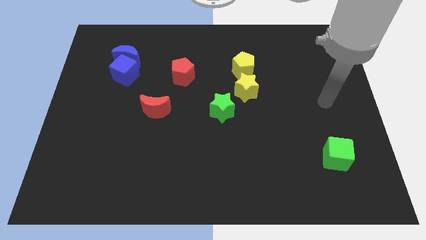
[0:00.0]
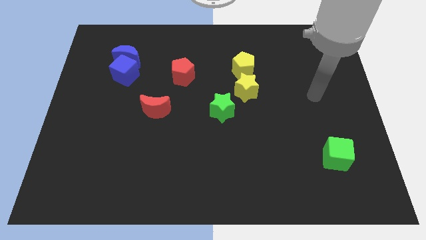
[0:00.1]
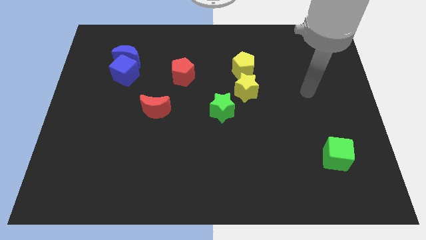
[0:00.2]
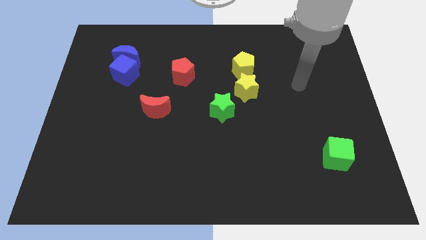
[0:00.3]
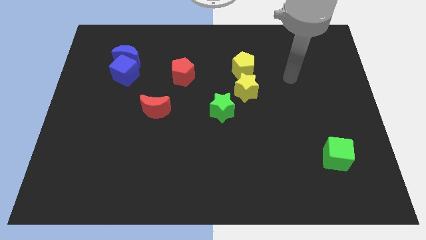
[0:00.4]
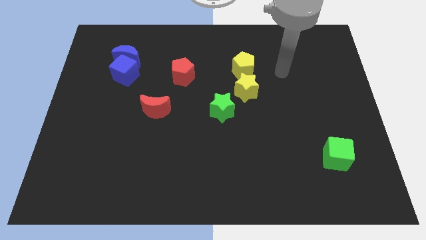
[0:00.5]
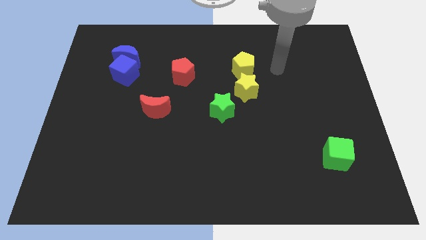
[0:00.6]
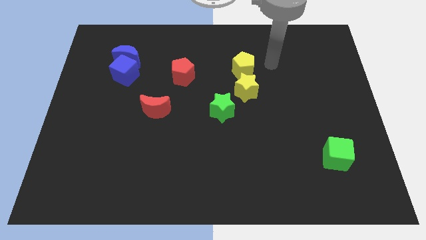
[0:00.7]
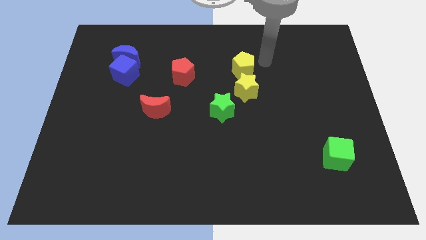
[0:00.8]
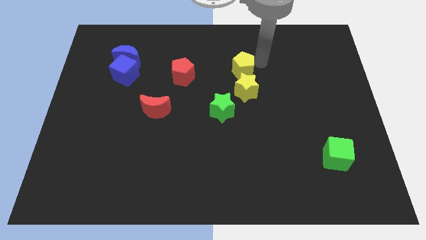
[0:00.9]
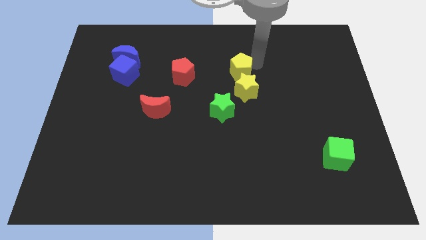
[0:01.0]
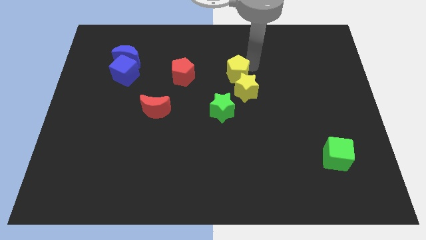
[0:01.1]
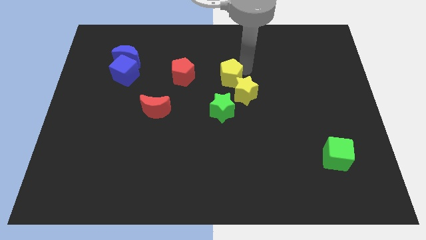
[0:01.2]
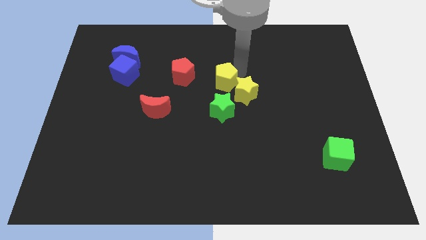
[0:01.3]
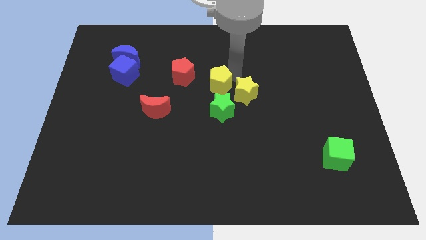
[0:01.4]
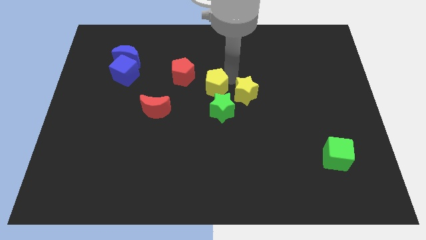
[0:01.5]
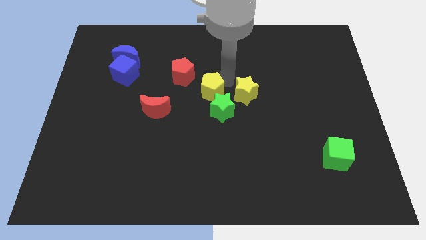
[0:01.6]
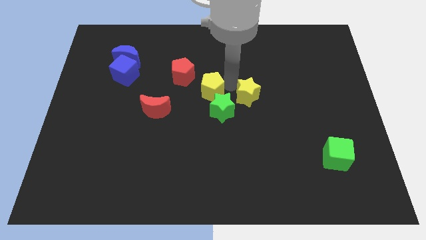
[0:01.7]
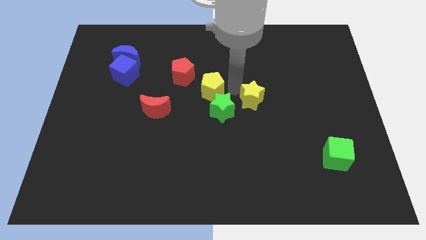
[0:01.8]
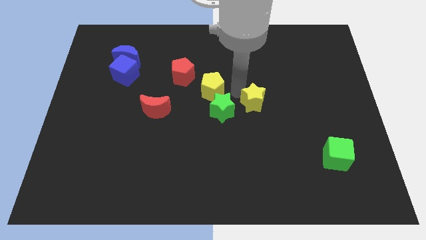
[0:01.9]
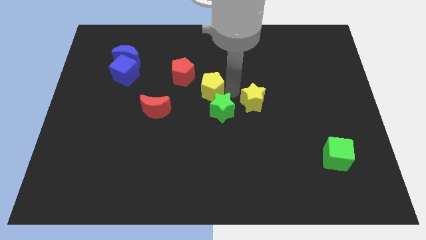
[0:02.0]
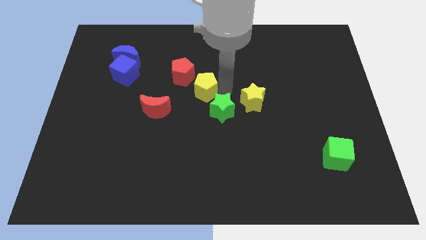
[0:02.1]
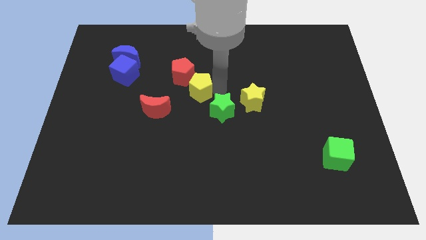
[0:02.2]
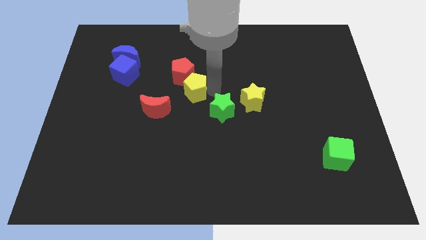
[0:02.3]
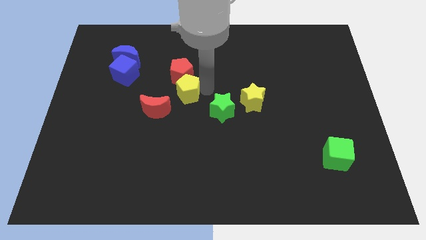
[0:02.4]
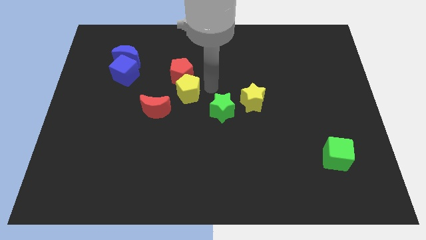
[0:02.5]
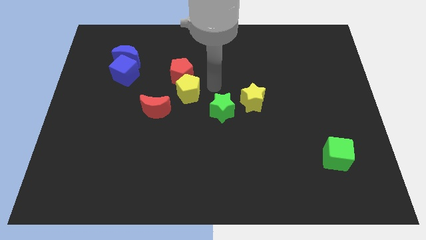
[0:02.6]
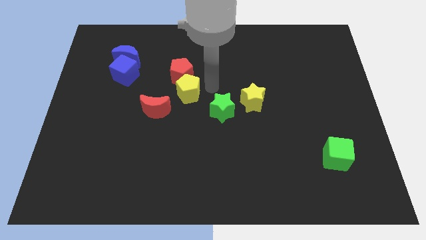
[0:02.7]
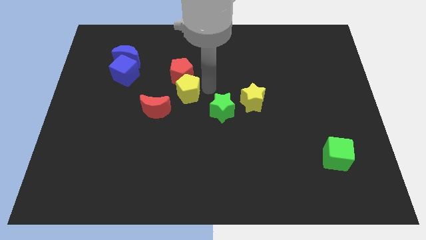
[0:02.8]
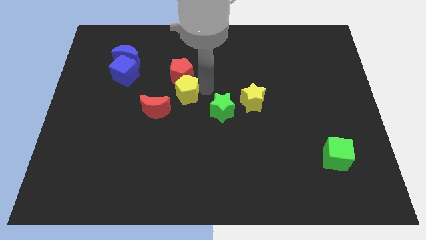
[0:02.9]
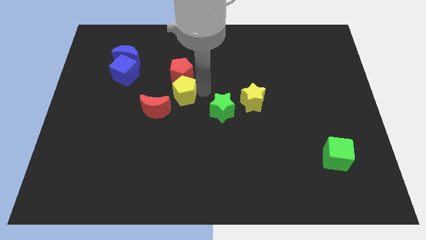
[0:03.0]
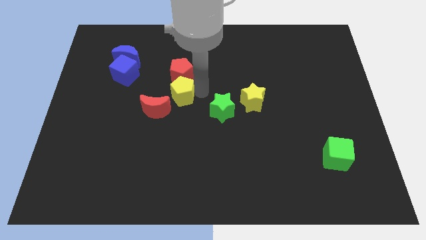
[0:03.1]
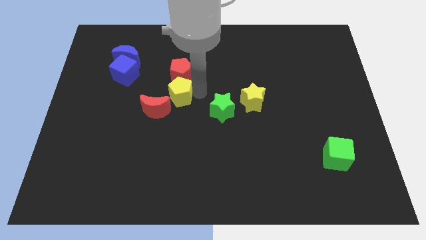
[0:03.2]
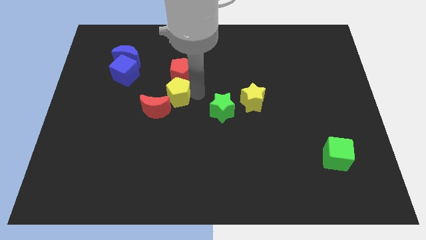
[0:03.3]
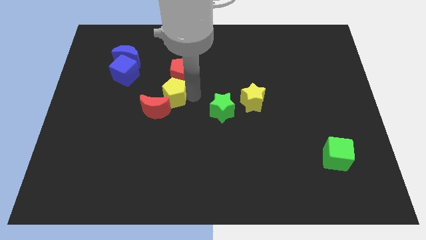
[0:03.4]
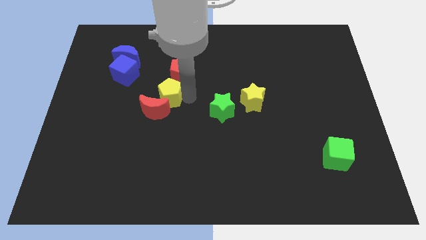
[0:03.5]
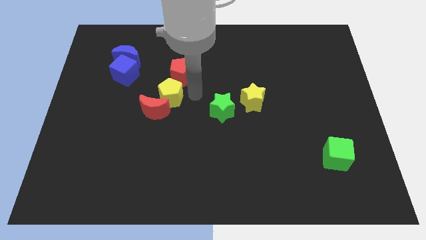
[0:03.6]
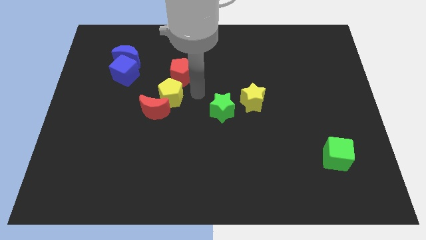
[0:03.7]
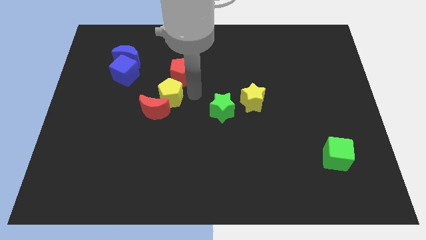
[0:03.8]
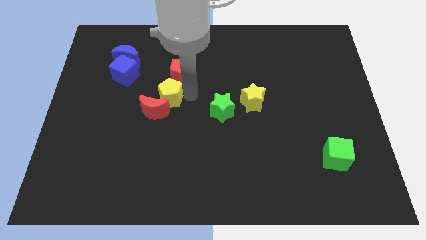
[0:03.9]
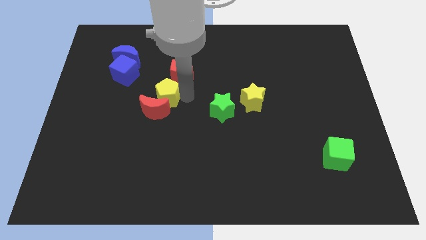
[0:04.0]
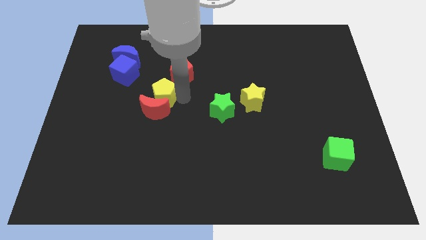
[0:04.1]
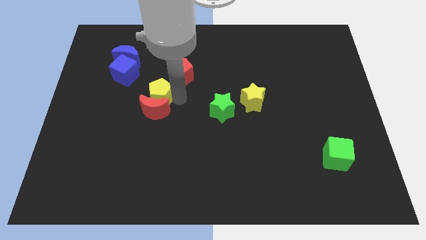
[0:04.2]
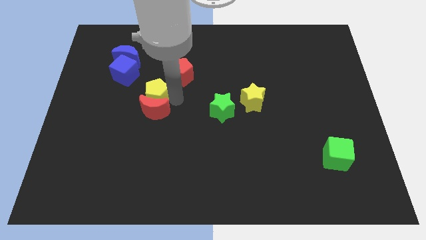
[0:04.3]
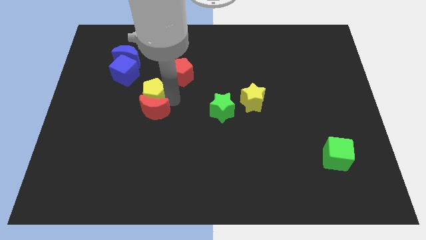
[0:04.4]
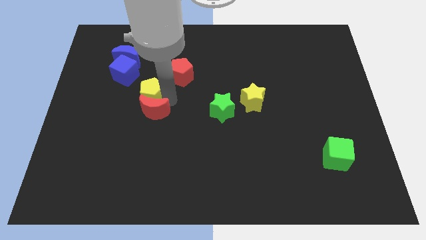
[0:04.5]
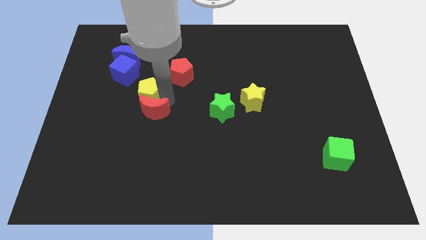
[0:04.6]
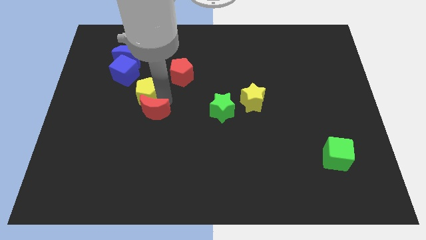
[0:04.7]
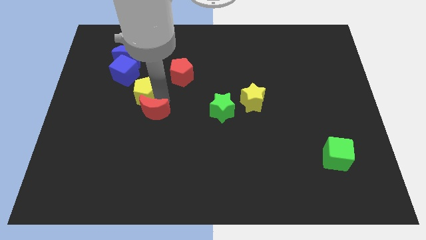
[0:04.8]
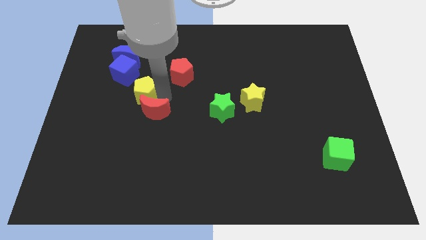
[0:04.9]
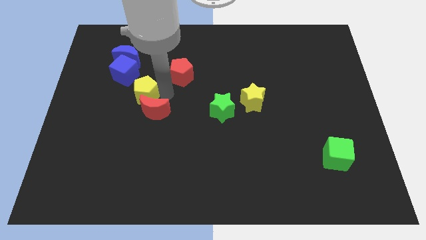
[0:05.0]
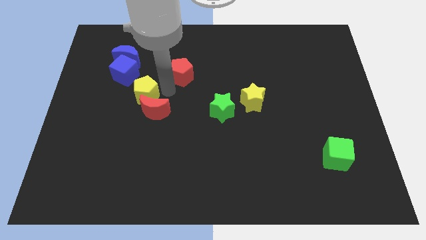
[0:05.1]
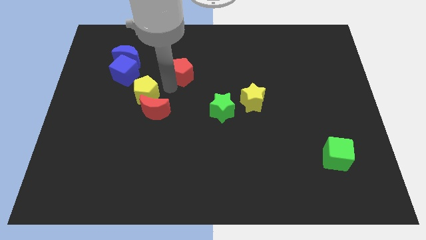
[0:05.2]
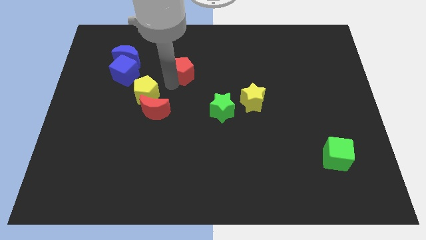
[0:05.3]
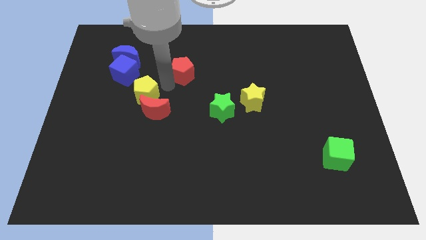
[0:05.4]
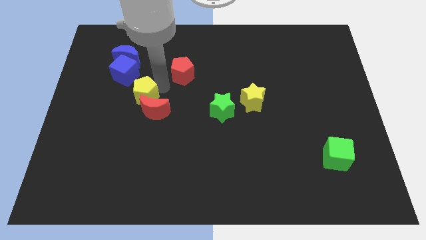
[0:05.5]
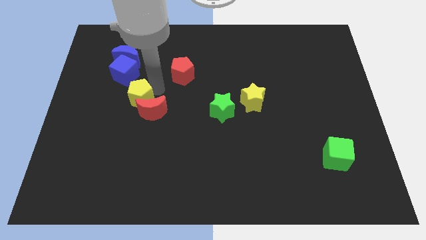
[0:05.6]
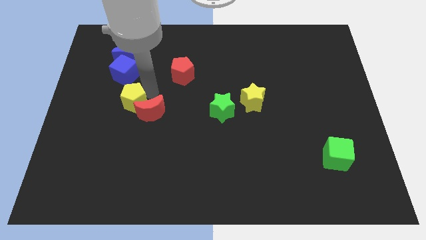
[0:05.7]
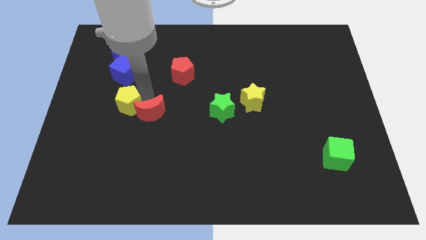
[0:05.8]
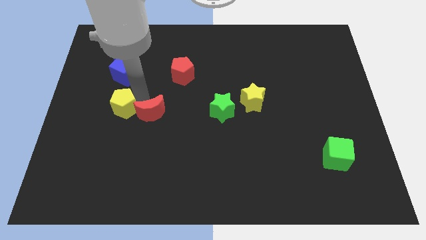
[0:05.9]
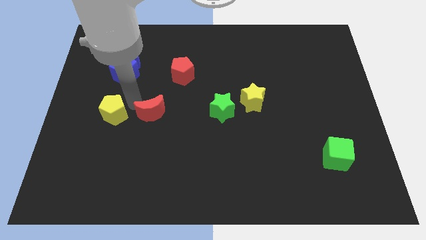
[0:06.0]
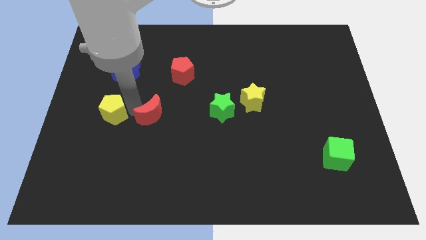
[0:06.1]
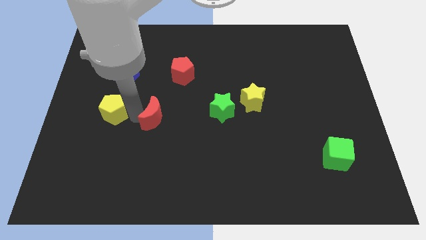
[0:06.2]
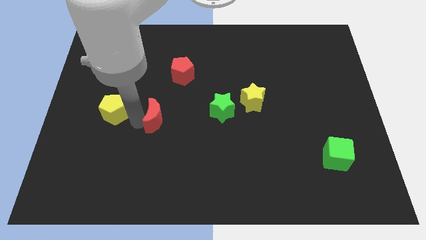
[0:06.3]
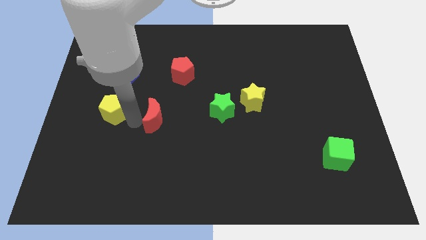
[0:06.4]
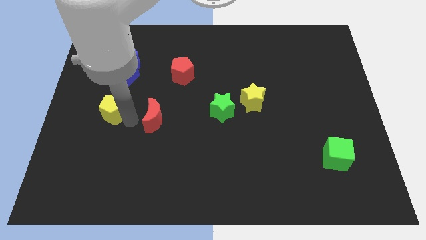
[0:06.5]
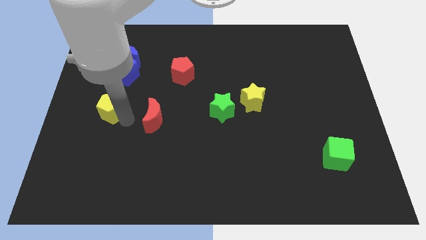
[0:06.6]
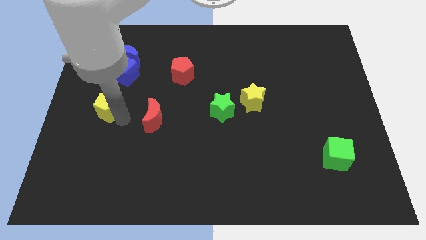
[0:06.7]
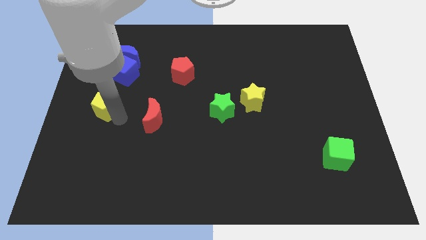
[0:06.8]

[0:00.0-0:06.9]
push the yellow pentagon to the left side
